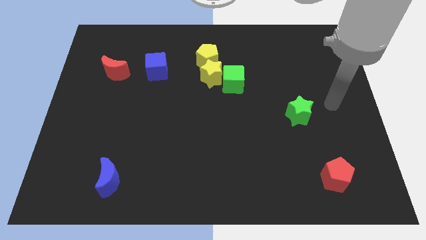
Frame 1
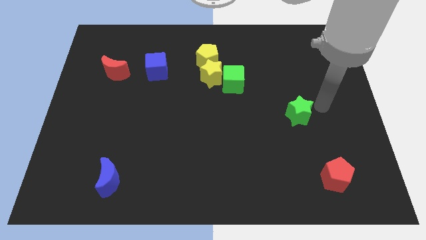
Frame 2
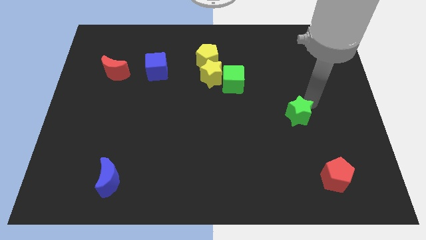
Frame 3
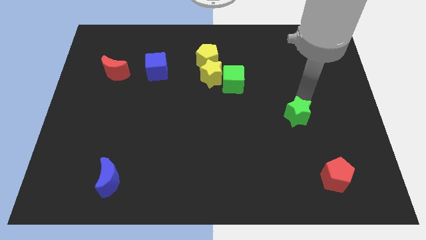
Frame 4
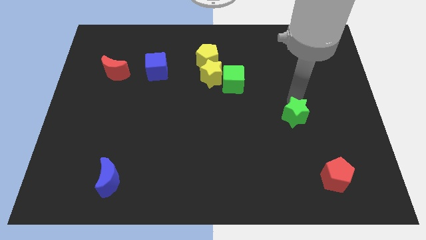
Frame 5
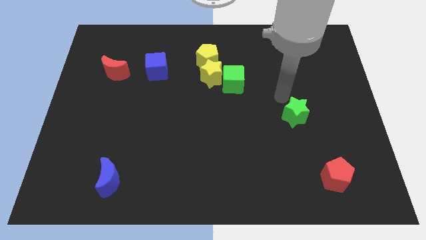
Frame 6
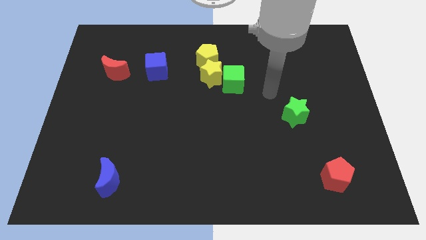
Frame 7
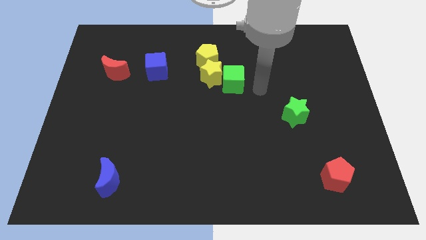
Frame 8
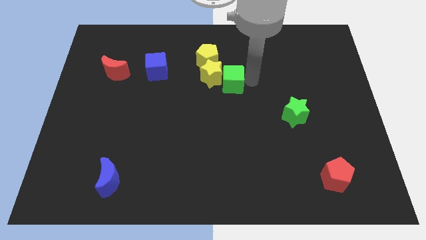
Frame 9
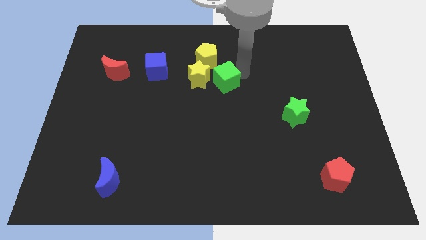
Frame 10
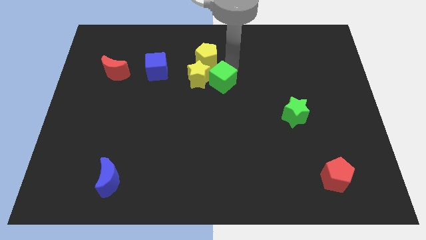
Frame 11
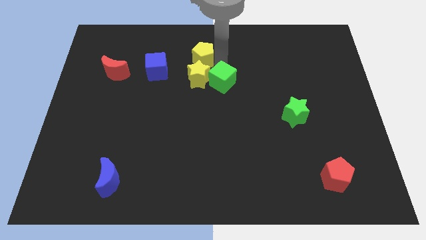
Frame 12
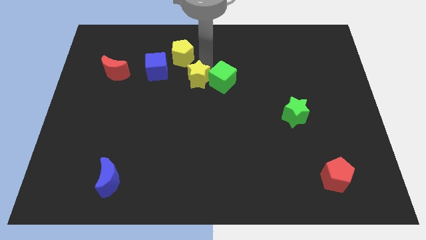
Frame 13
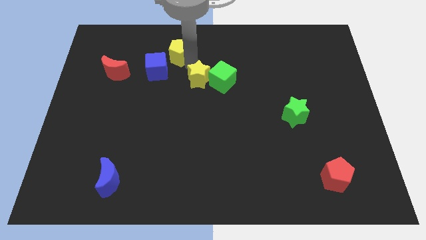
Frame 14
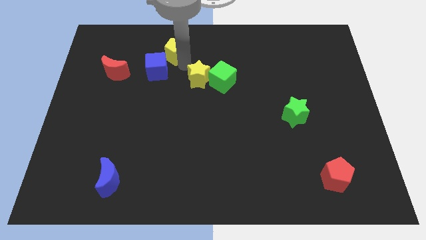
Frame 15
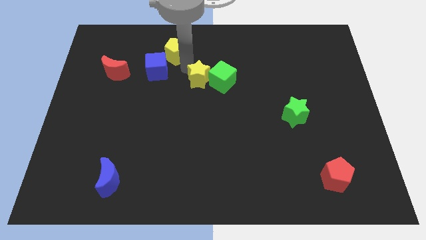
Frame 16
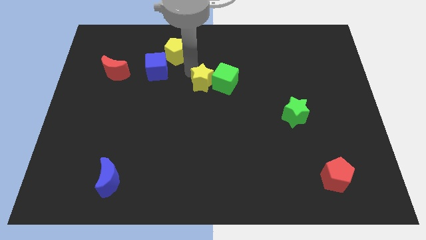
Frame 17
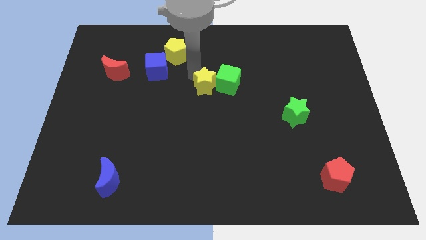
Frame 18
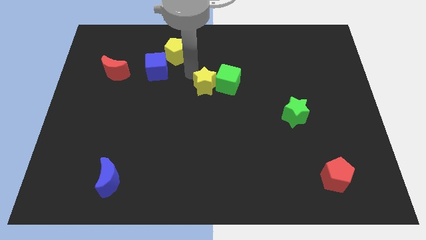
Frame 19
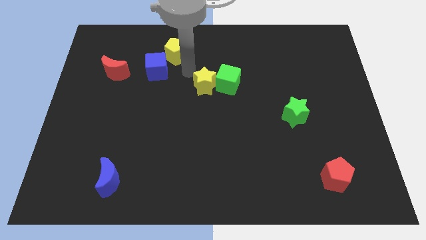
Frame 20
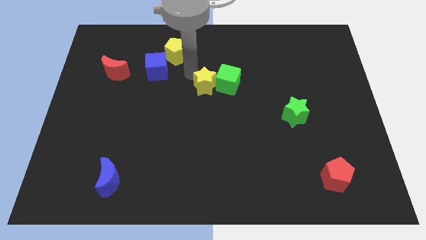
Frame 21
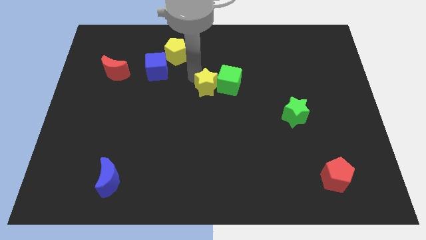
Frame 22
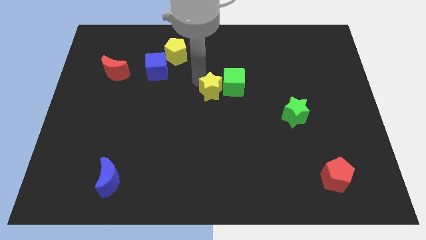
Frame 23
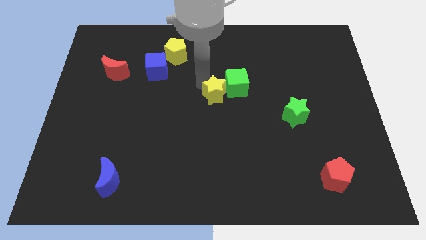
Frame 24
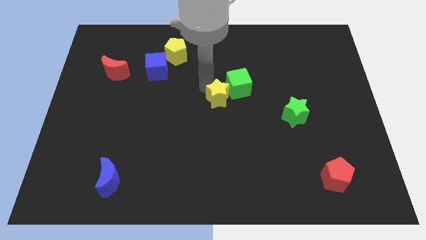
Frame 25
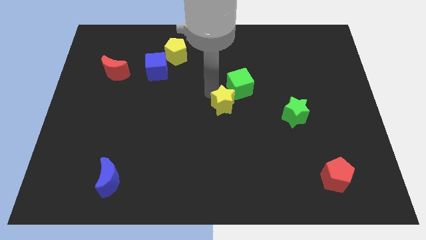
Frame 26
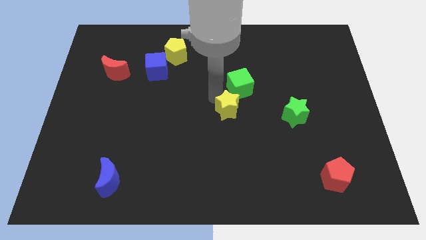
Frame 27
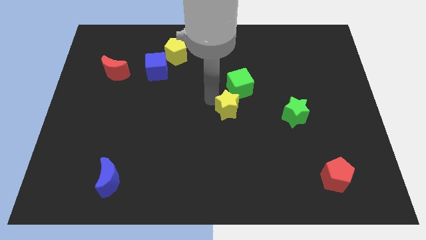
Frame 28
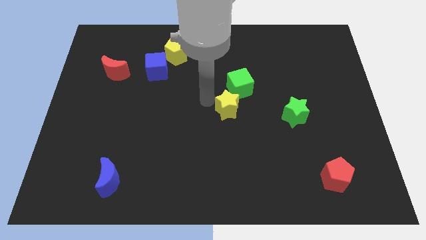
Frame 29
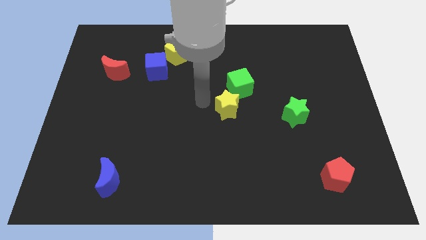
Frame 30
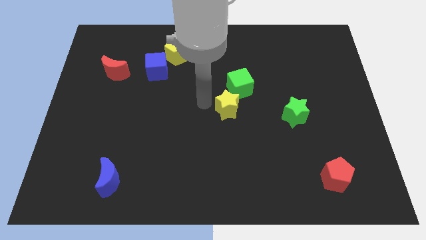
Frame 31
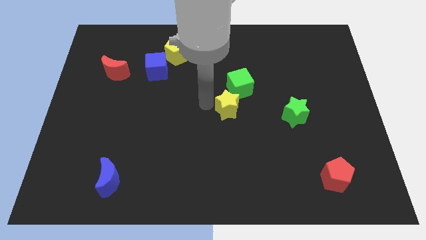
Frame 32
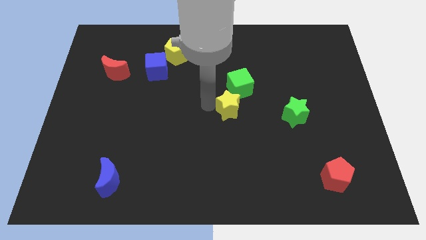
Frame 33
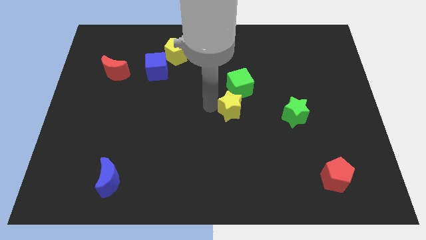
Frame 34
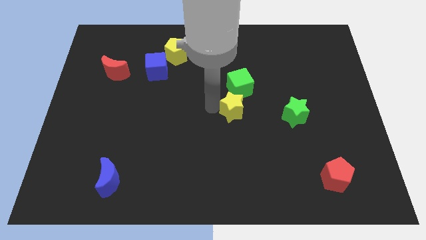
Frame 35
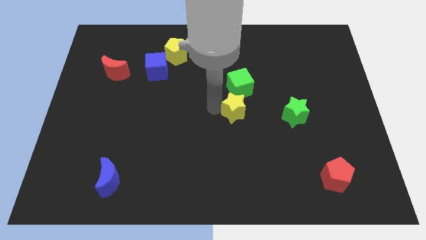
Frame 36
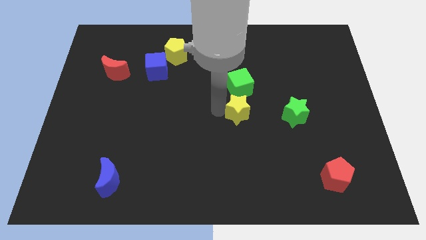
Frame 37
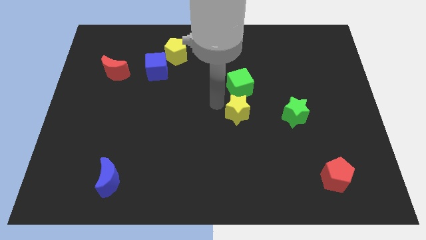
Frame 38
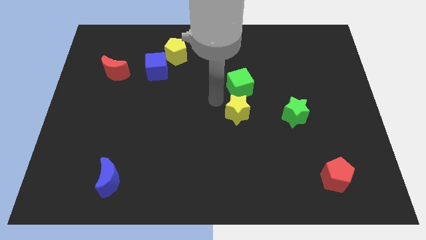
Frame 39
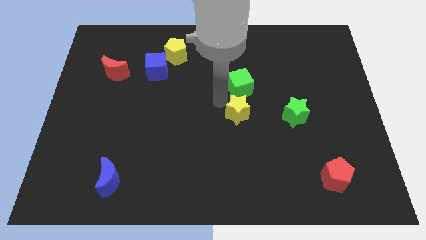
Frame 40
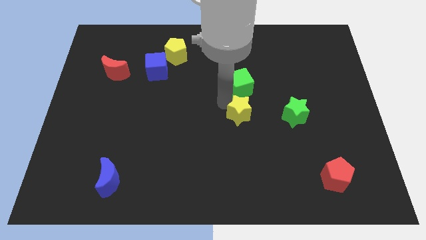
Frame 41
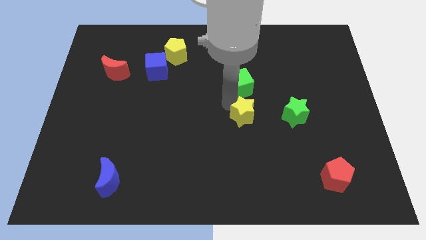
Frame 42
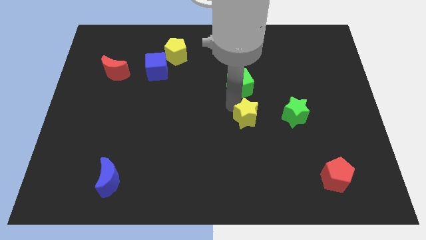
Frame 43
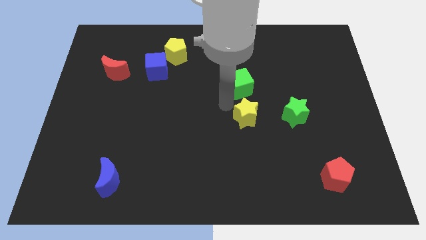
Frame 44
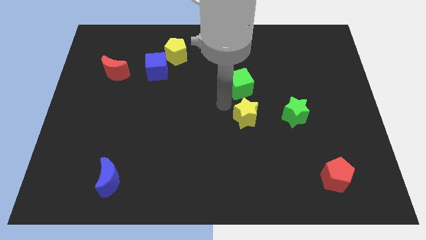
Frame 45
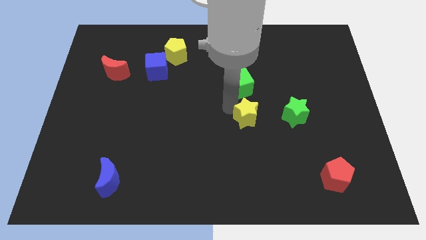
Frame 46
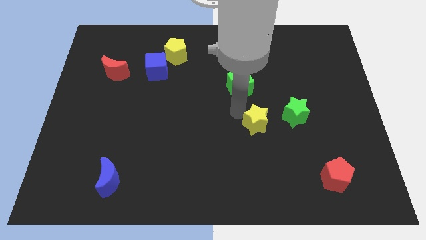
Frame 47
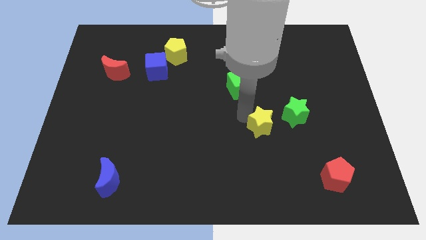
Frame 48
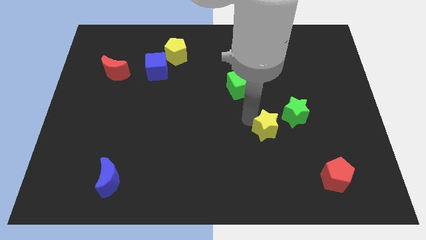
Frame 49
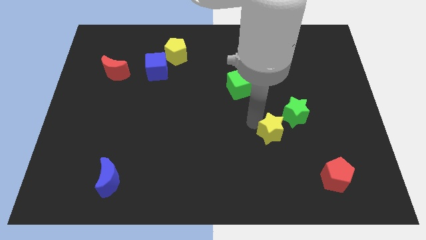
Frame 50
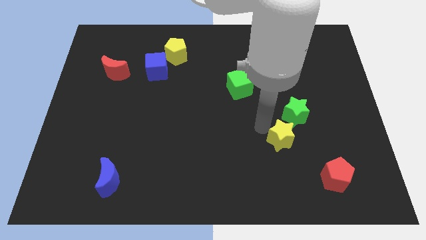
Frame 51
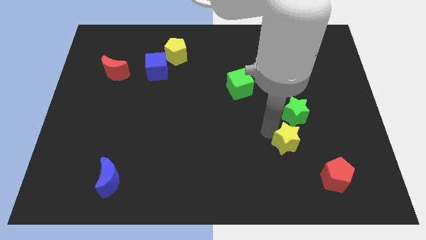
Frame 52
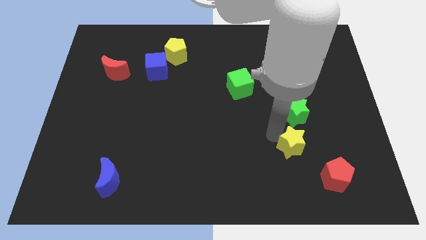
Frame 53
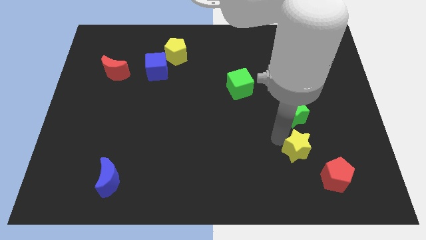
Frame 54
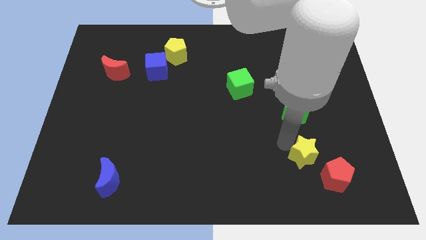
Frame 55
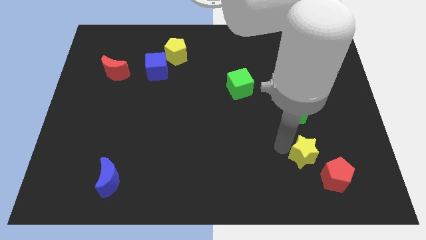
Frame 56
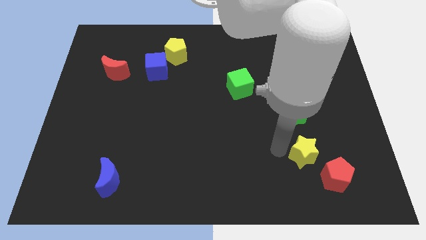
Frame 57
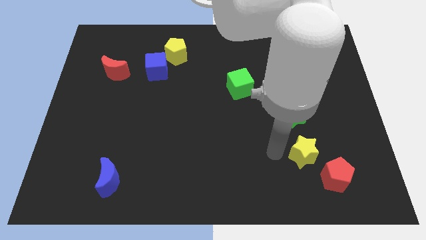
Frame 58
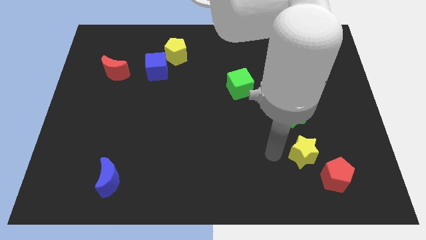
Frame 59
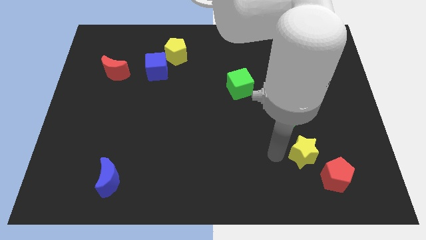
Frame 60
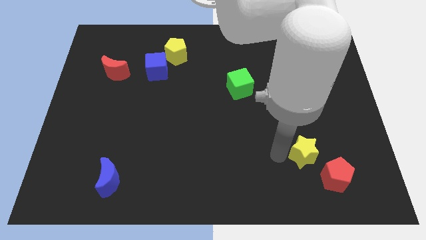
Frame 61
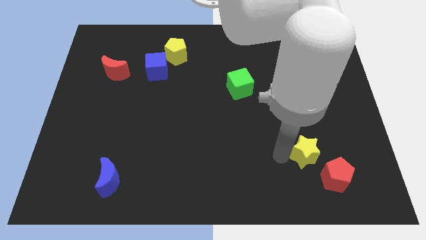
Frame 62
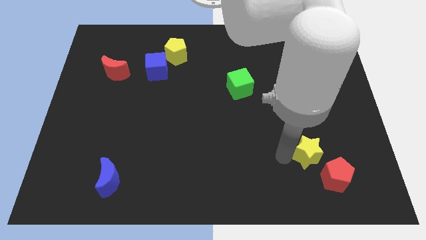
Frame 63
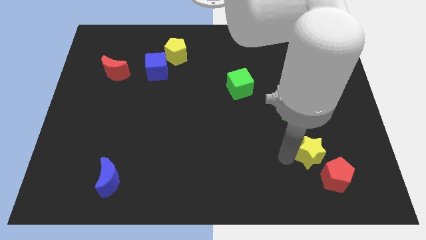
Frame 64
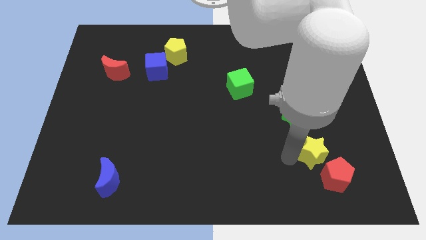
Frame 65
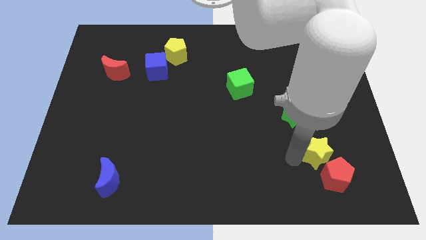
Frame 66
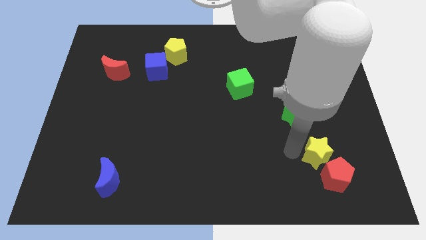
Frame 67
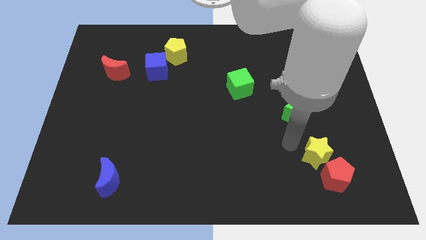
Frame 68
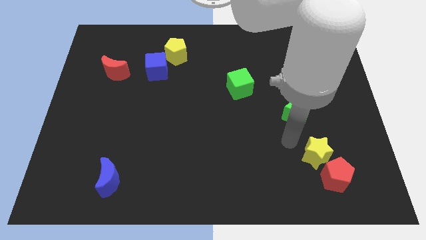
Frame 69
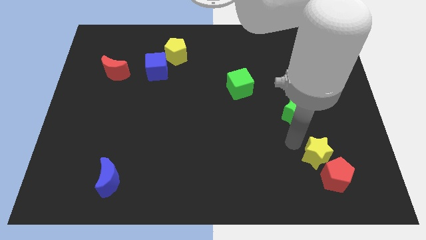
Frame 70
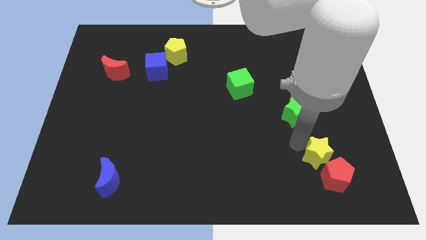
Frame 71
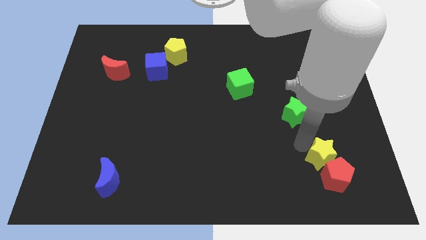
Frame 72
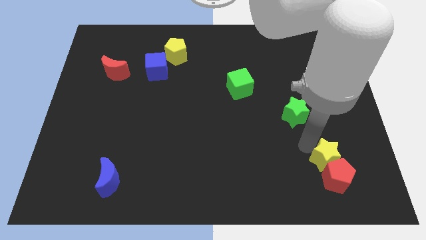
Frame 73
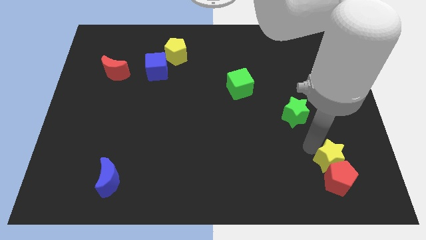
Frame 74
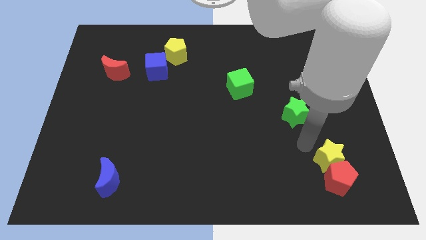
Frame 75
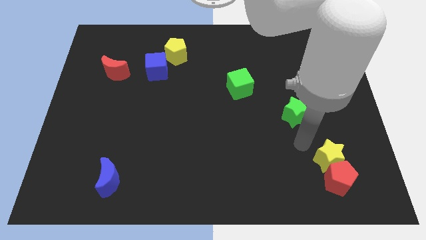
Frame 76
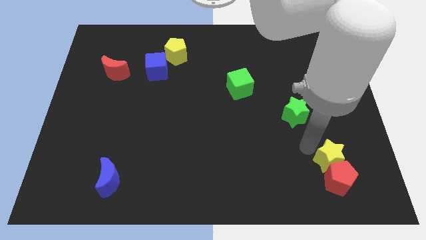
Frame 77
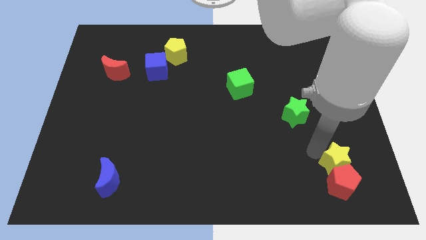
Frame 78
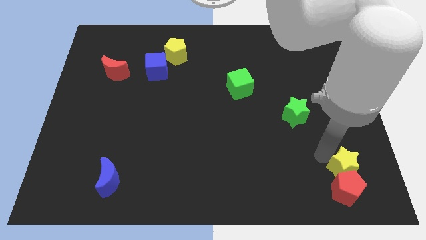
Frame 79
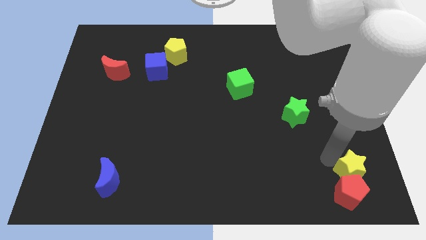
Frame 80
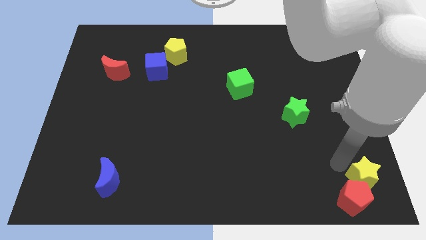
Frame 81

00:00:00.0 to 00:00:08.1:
move the yellow star to the lower right corner
